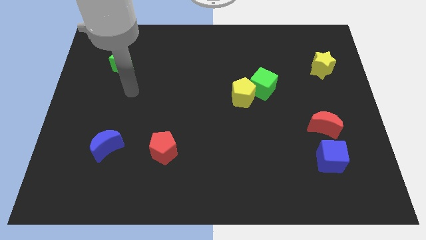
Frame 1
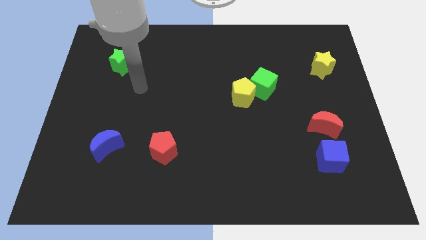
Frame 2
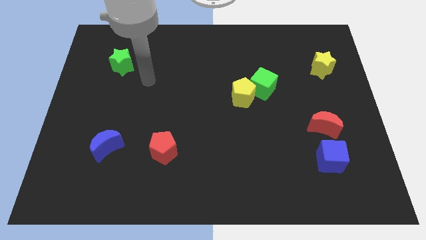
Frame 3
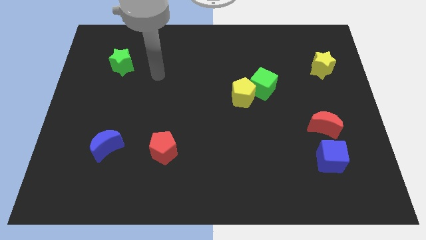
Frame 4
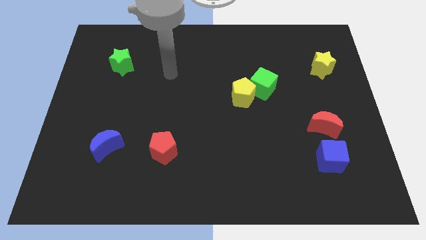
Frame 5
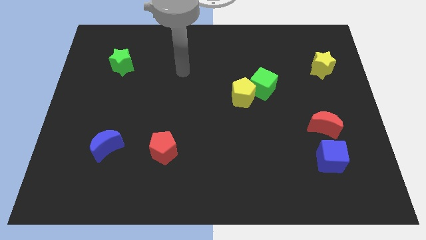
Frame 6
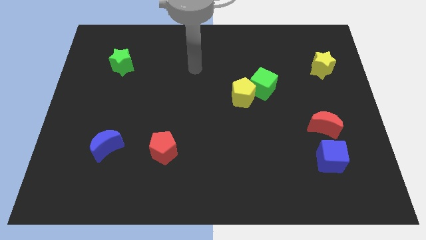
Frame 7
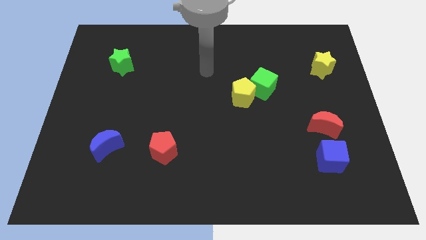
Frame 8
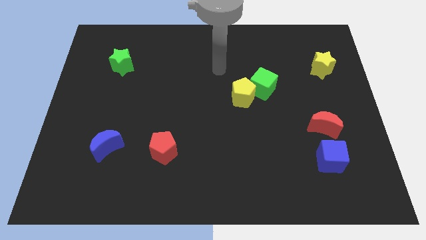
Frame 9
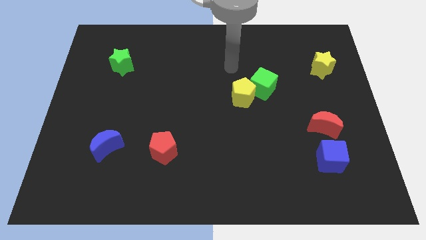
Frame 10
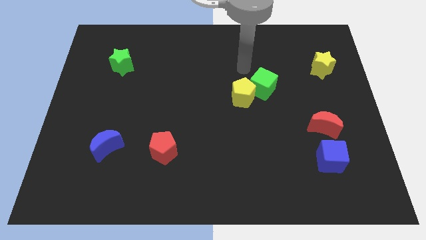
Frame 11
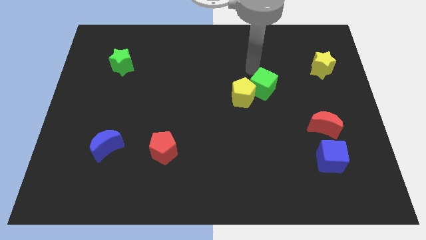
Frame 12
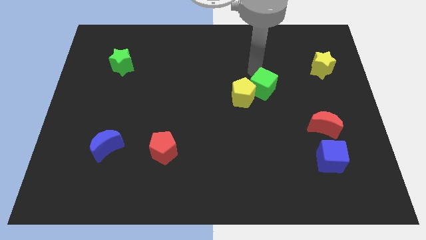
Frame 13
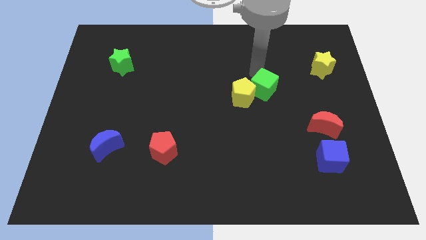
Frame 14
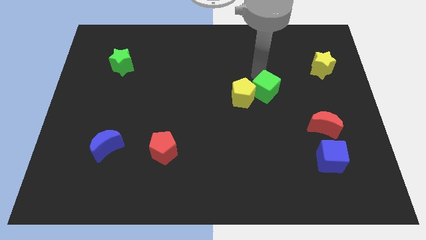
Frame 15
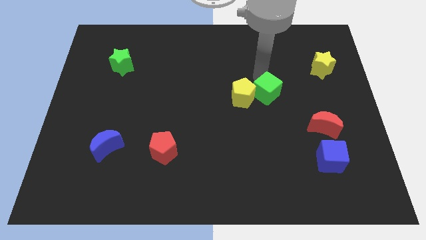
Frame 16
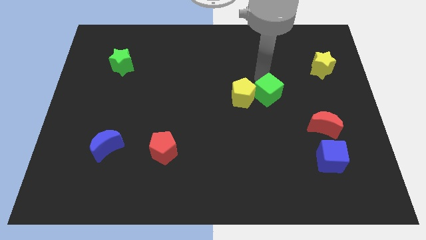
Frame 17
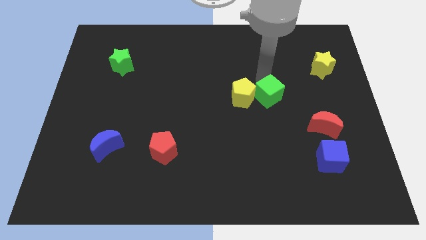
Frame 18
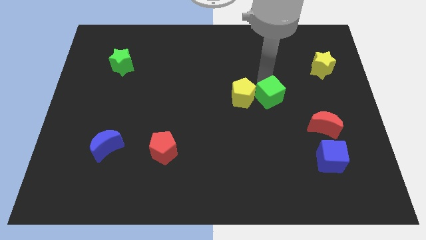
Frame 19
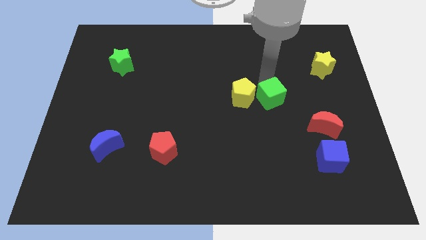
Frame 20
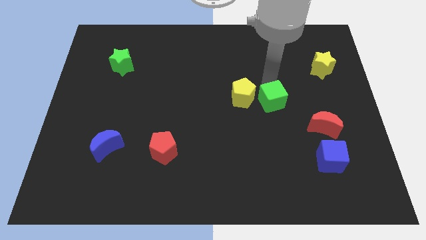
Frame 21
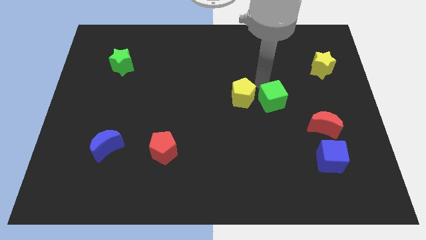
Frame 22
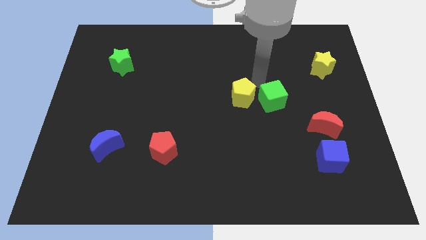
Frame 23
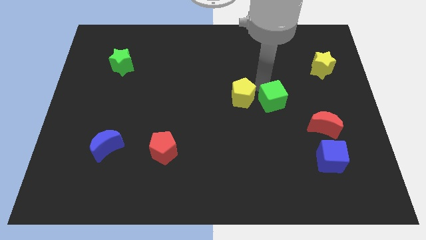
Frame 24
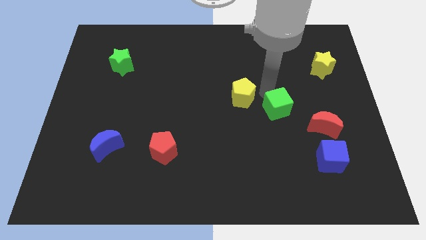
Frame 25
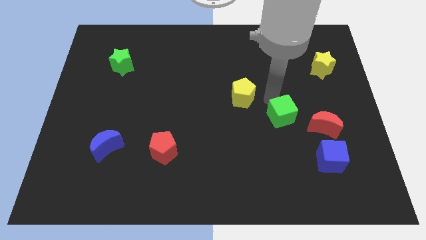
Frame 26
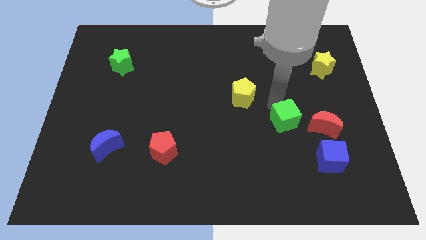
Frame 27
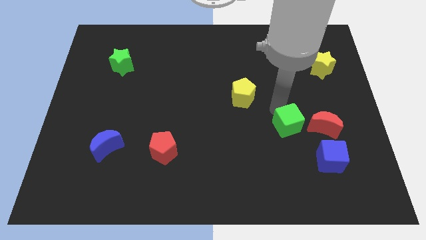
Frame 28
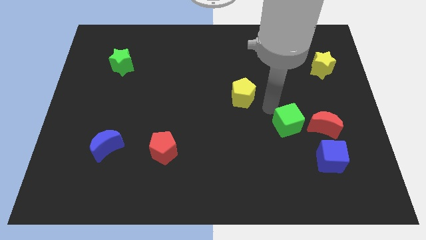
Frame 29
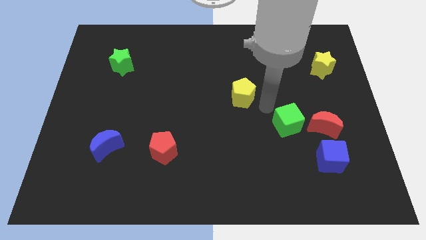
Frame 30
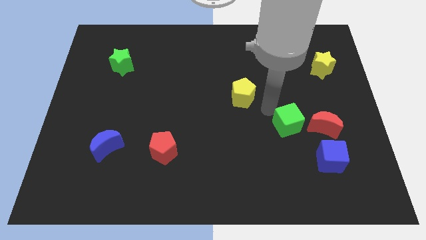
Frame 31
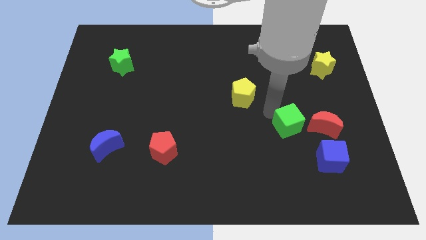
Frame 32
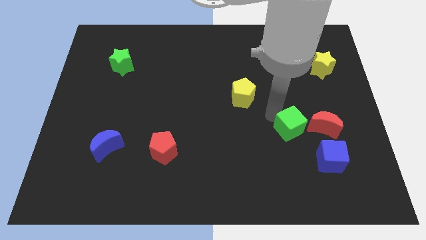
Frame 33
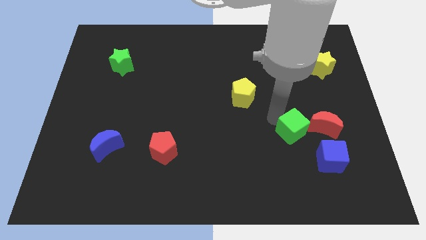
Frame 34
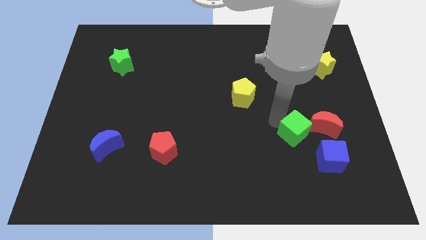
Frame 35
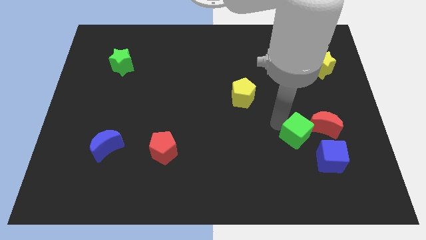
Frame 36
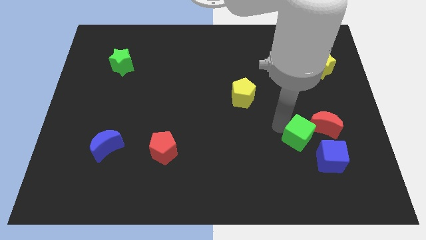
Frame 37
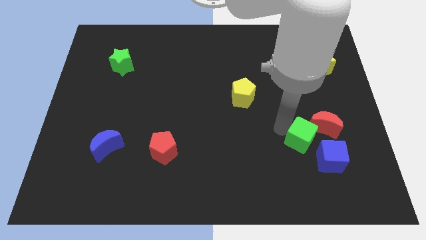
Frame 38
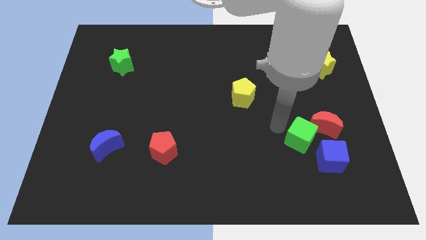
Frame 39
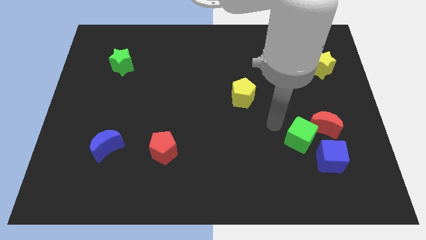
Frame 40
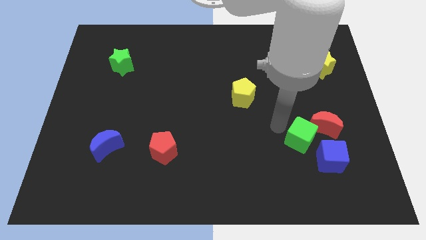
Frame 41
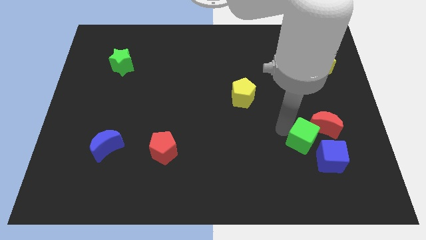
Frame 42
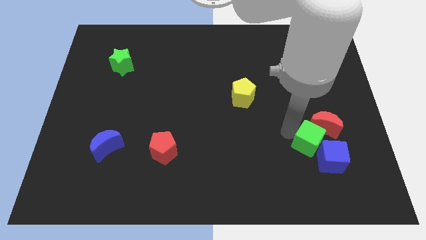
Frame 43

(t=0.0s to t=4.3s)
put the green cube next to the blue cube

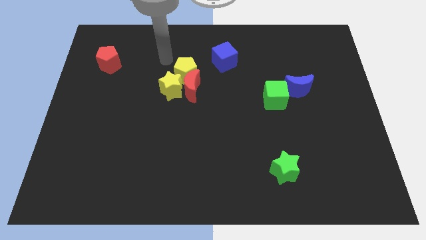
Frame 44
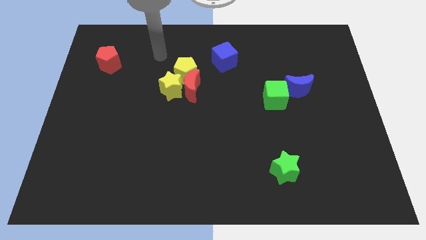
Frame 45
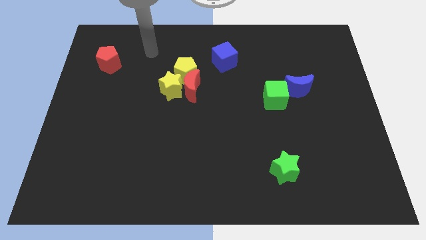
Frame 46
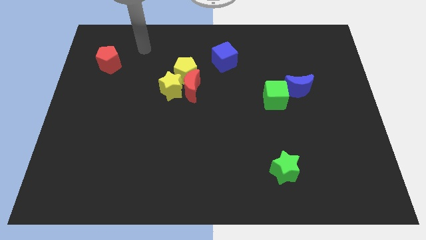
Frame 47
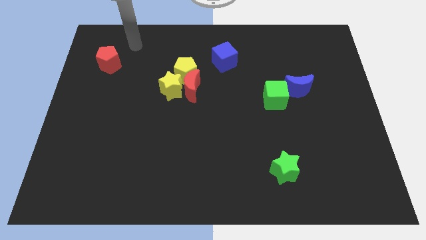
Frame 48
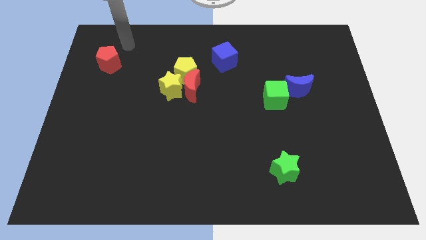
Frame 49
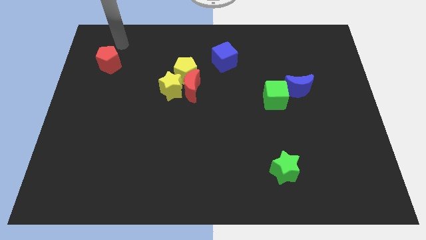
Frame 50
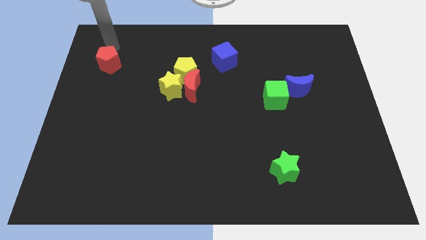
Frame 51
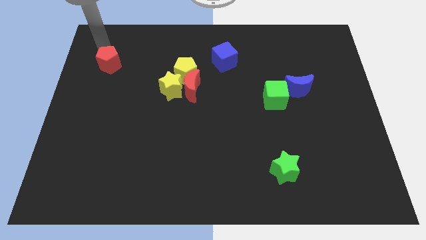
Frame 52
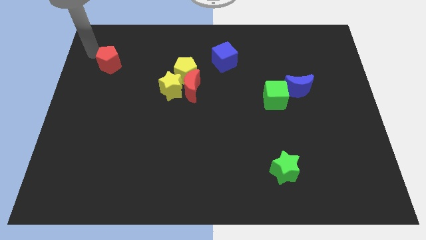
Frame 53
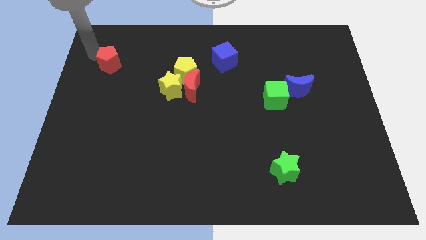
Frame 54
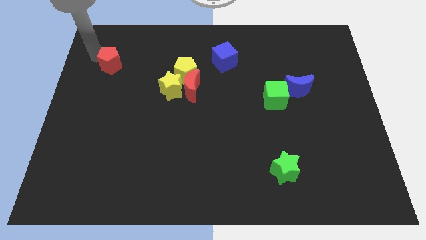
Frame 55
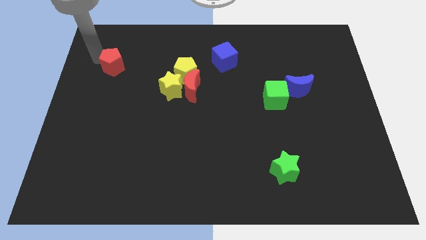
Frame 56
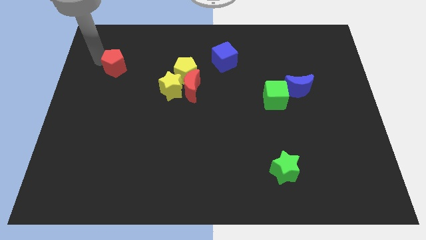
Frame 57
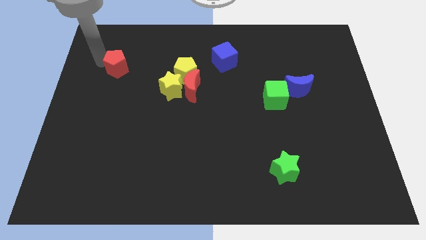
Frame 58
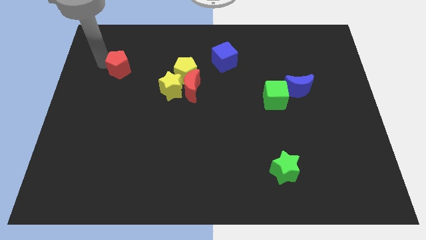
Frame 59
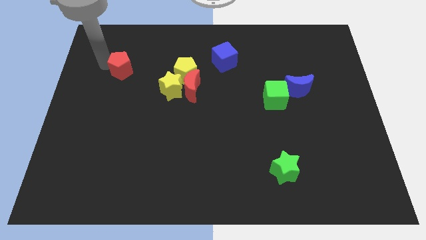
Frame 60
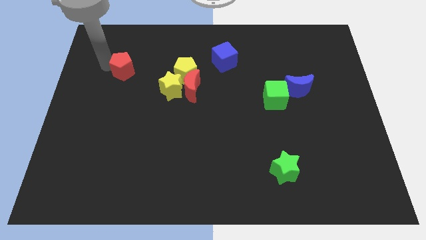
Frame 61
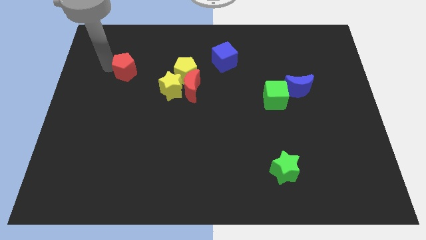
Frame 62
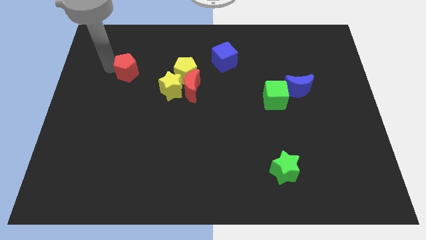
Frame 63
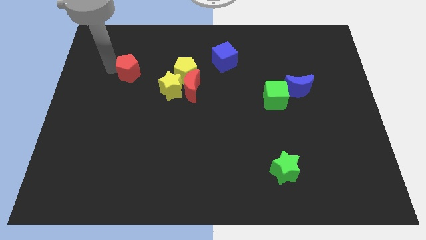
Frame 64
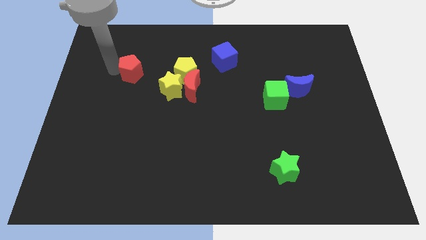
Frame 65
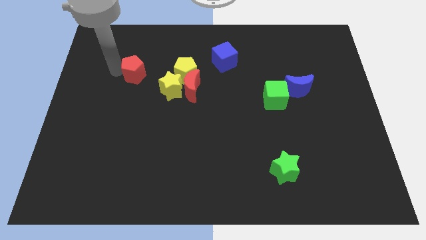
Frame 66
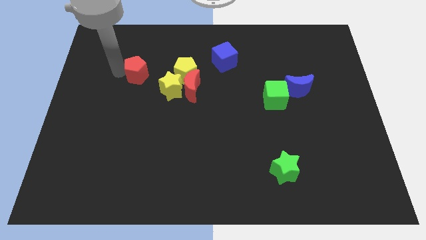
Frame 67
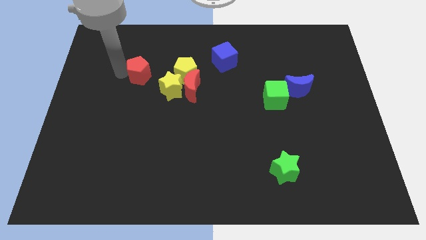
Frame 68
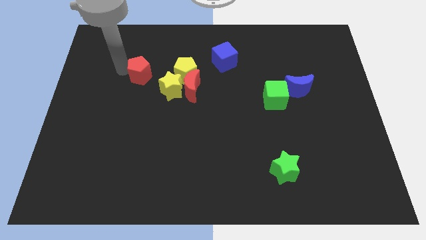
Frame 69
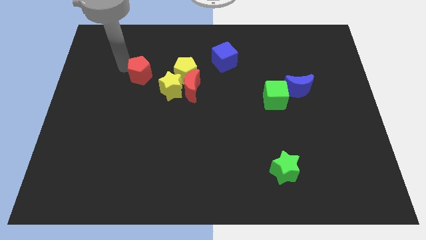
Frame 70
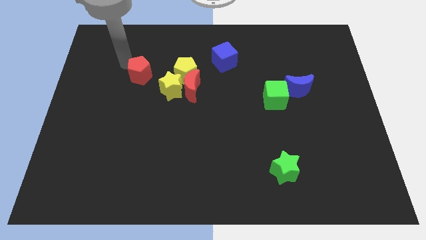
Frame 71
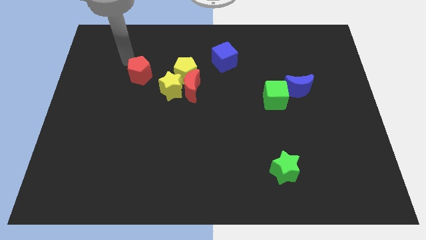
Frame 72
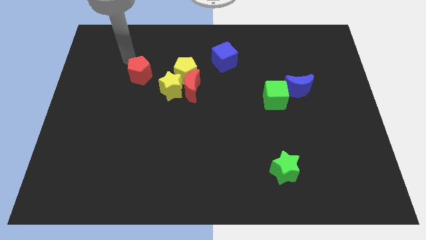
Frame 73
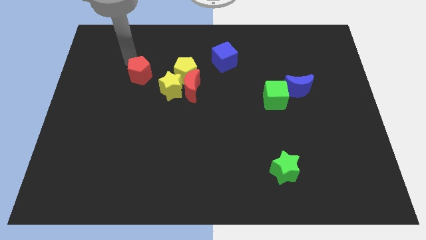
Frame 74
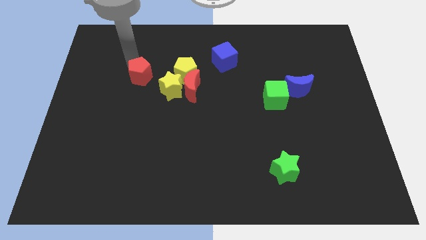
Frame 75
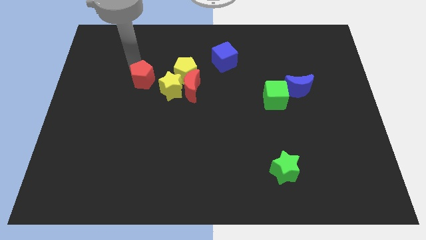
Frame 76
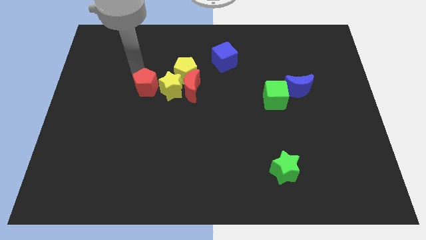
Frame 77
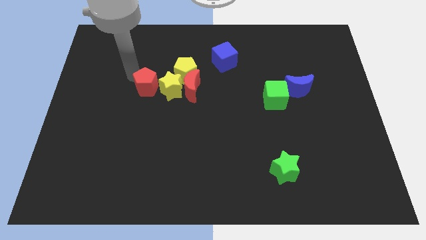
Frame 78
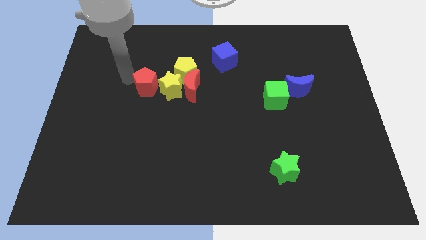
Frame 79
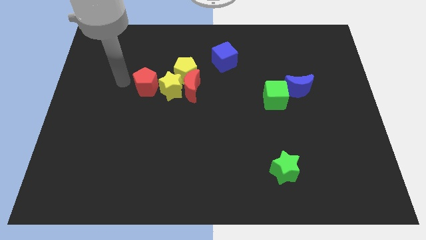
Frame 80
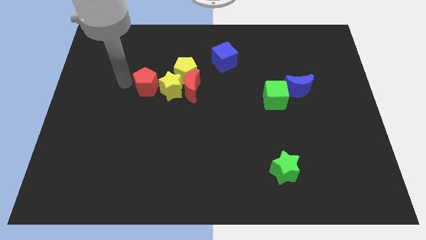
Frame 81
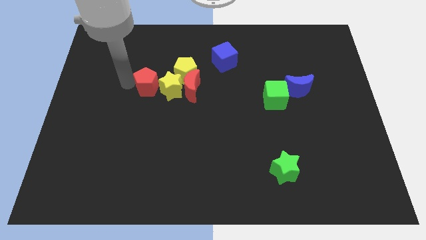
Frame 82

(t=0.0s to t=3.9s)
put the red pentagon next to the yellow star
